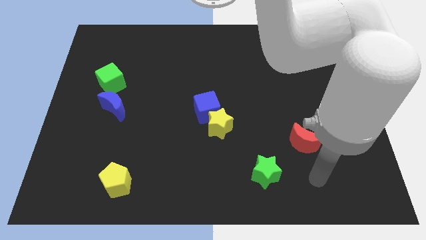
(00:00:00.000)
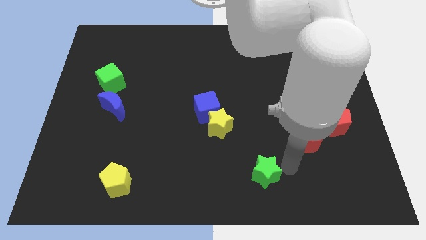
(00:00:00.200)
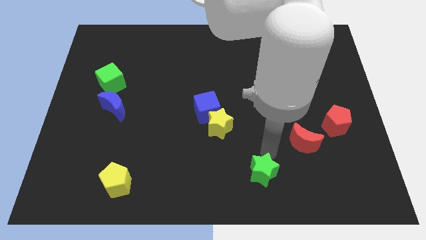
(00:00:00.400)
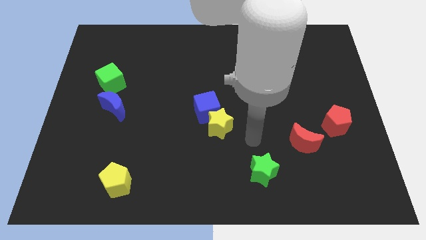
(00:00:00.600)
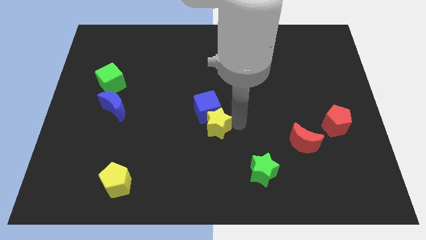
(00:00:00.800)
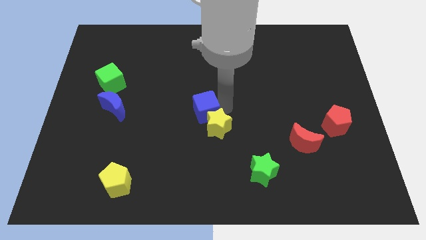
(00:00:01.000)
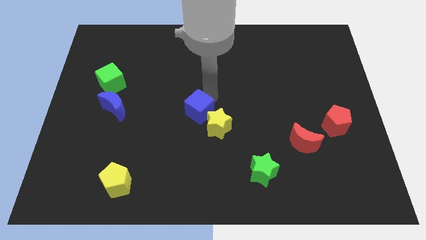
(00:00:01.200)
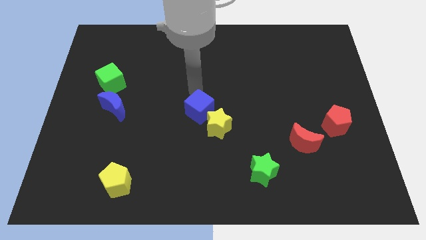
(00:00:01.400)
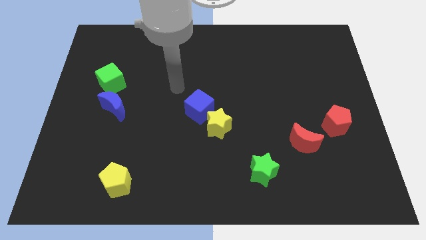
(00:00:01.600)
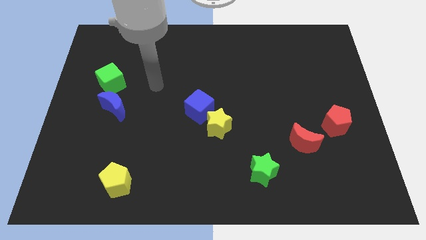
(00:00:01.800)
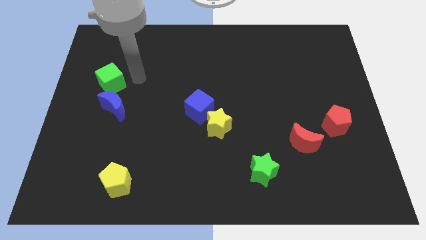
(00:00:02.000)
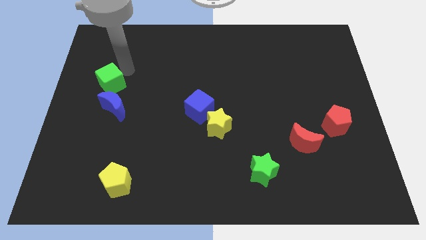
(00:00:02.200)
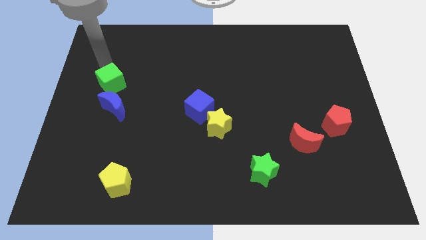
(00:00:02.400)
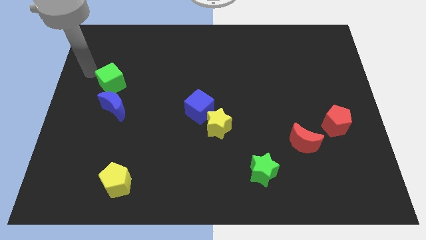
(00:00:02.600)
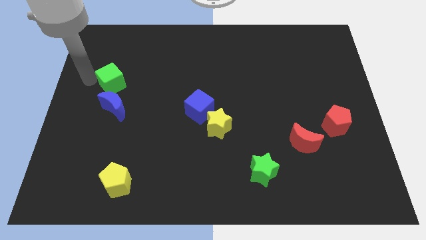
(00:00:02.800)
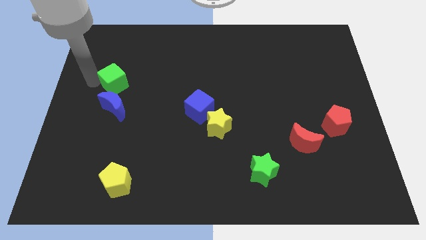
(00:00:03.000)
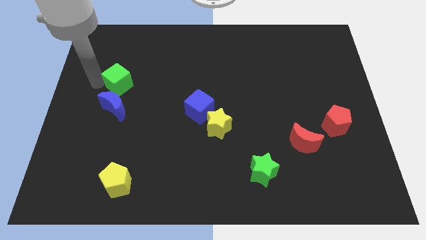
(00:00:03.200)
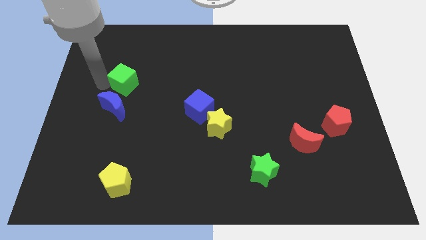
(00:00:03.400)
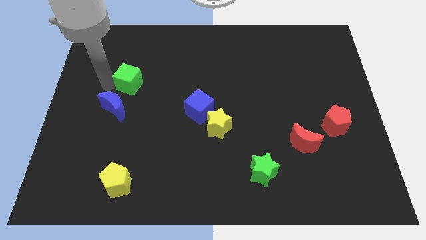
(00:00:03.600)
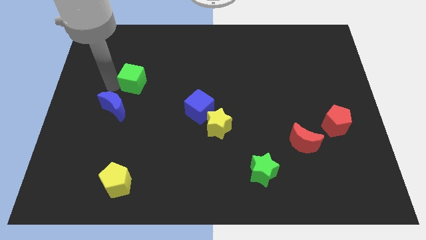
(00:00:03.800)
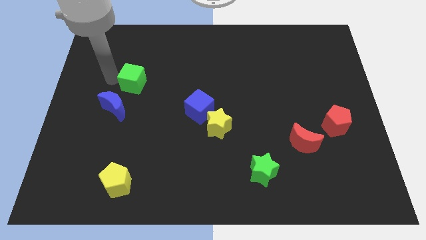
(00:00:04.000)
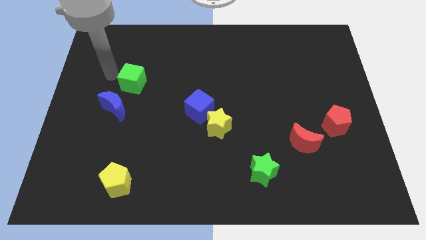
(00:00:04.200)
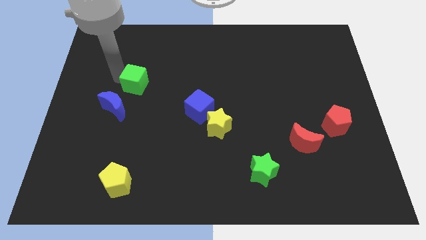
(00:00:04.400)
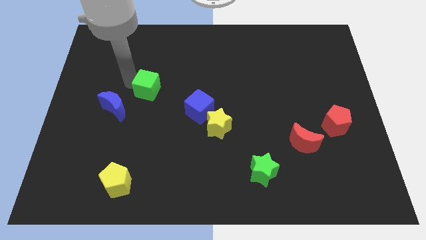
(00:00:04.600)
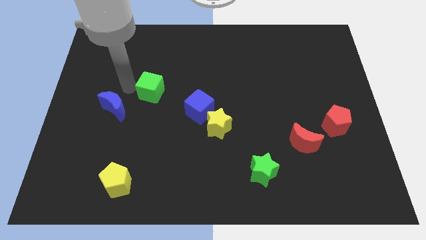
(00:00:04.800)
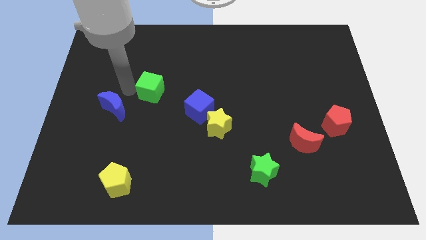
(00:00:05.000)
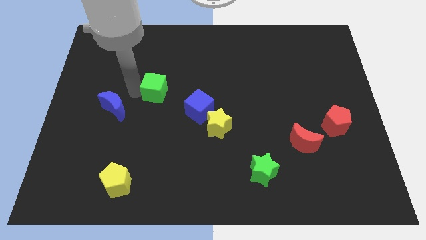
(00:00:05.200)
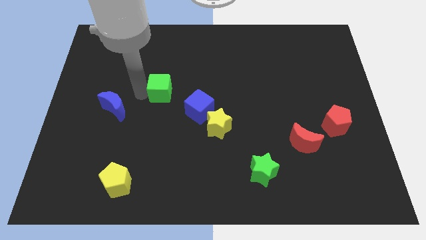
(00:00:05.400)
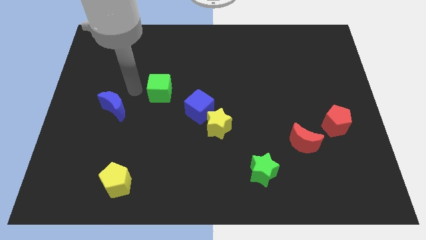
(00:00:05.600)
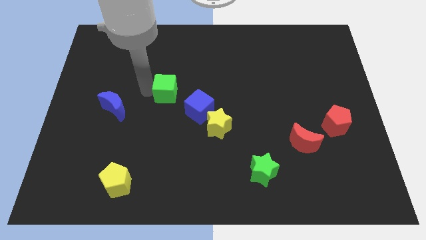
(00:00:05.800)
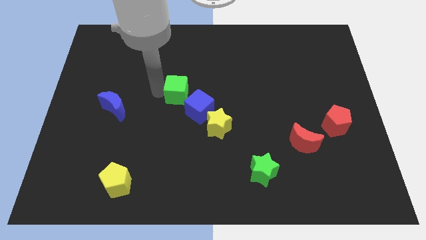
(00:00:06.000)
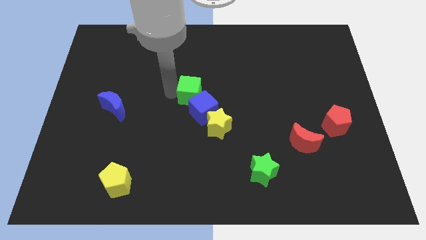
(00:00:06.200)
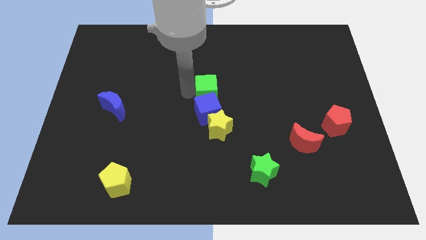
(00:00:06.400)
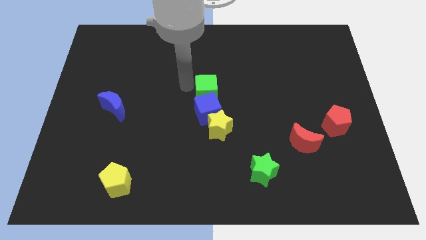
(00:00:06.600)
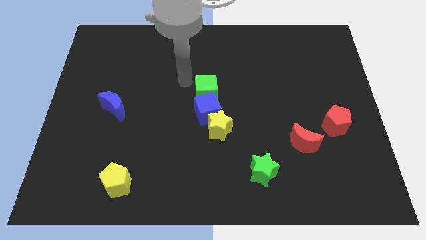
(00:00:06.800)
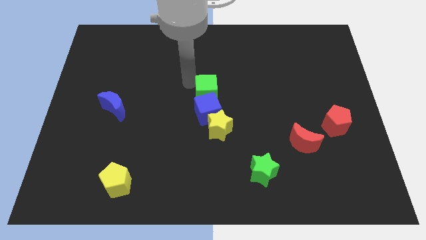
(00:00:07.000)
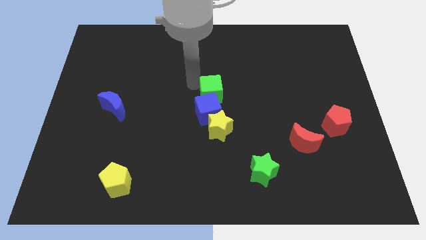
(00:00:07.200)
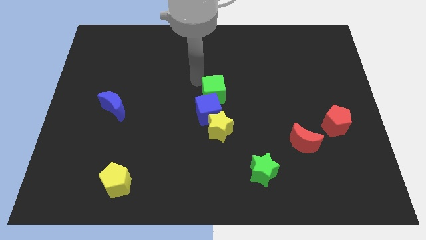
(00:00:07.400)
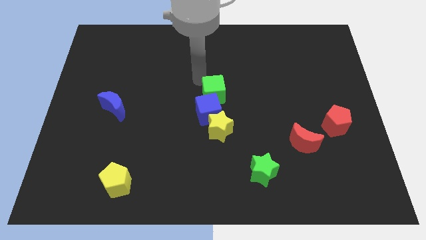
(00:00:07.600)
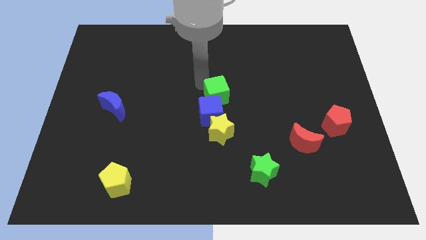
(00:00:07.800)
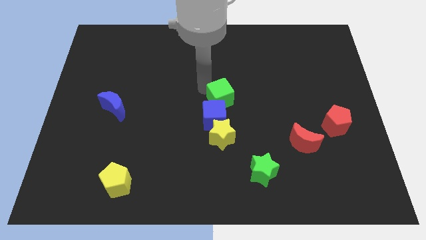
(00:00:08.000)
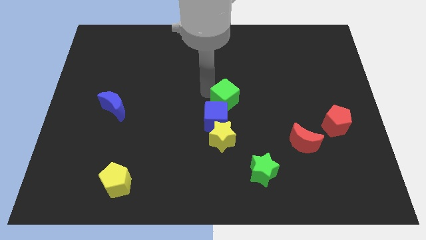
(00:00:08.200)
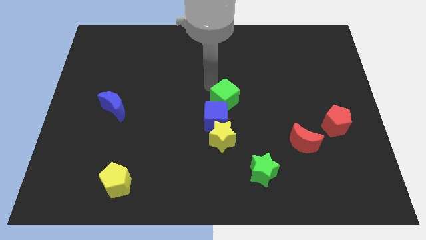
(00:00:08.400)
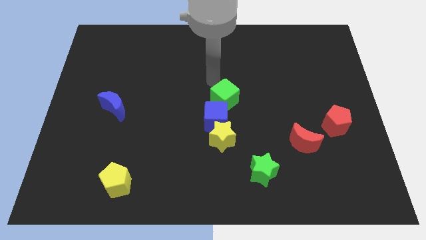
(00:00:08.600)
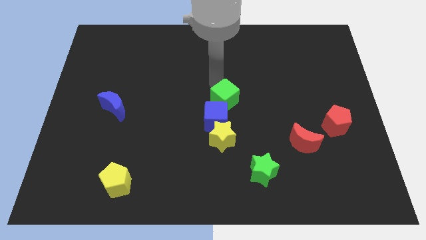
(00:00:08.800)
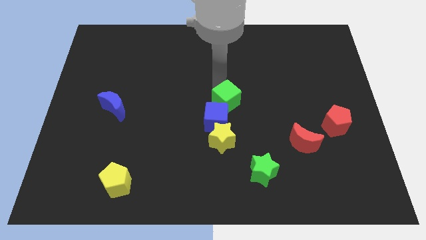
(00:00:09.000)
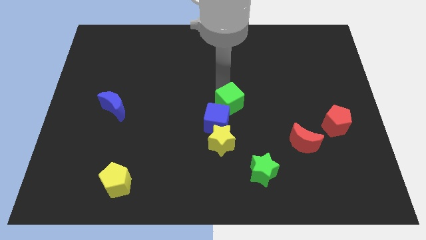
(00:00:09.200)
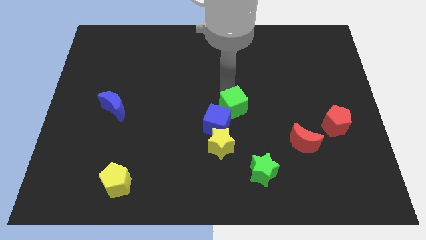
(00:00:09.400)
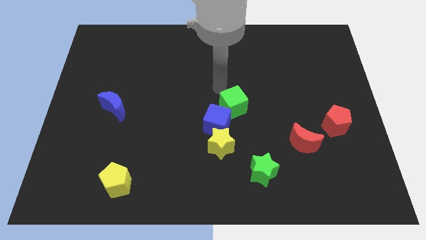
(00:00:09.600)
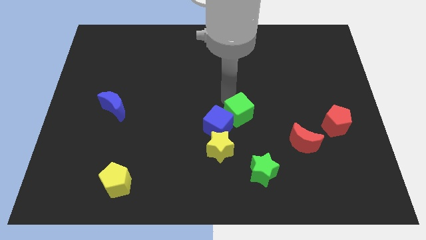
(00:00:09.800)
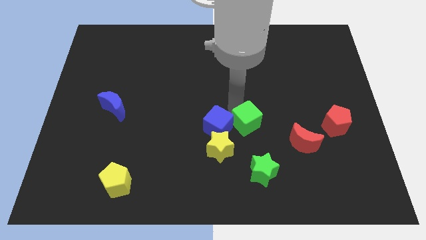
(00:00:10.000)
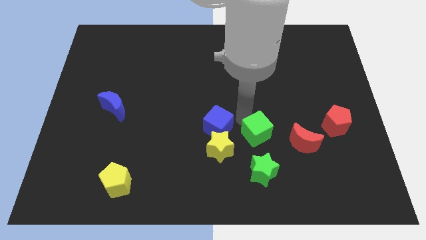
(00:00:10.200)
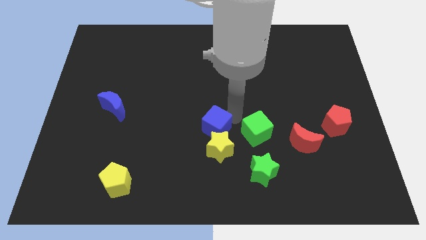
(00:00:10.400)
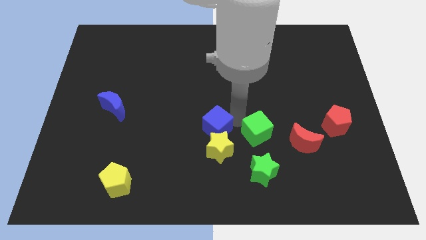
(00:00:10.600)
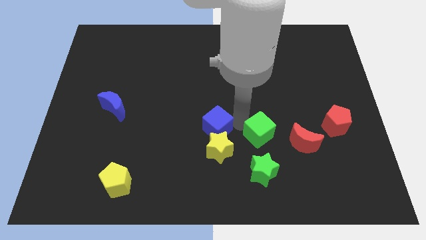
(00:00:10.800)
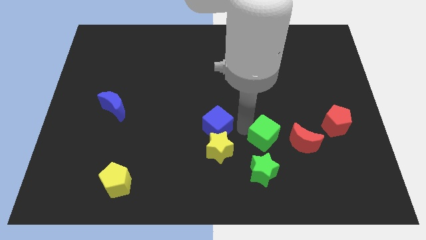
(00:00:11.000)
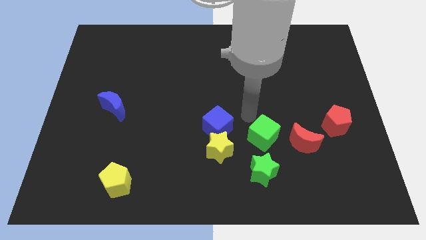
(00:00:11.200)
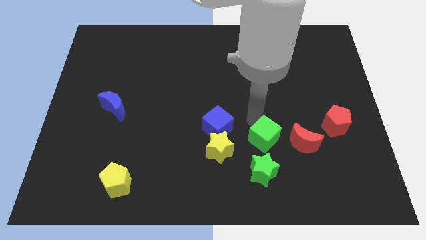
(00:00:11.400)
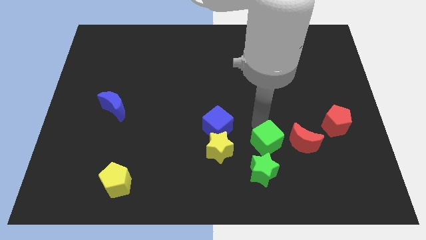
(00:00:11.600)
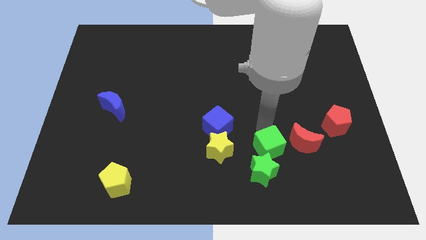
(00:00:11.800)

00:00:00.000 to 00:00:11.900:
slide the green cube to the bottom left of the red moon
